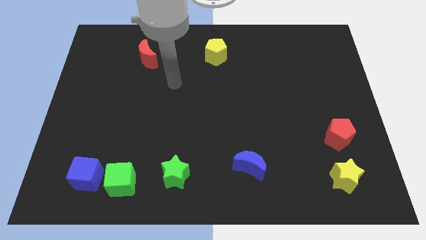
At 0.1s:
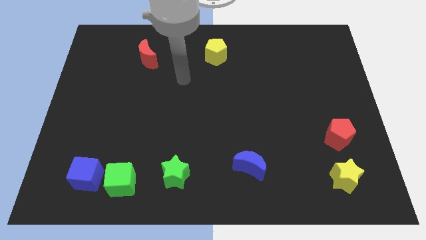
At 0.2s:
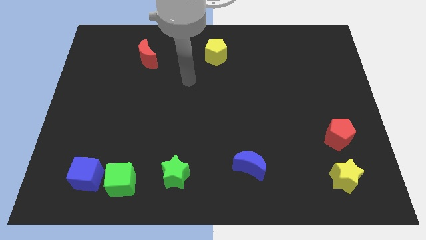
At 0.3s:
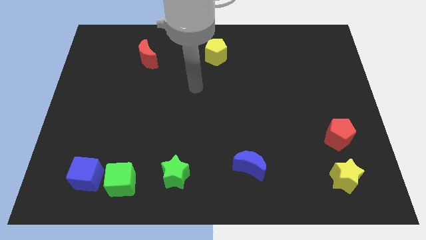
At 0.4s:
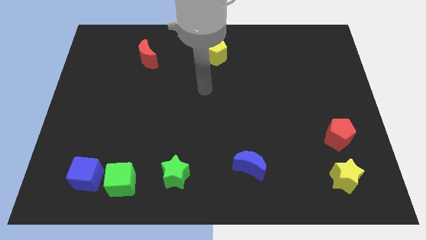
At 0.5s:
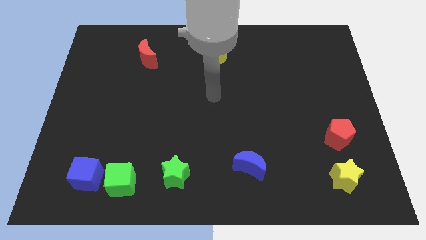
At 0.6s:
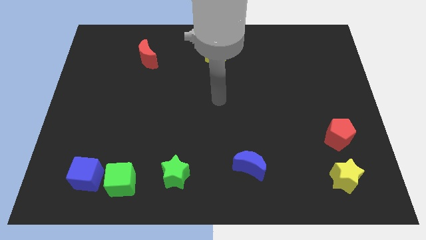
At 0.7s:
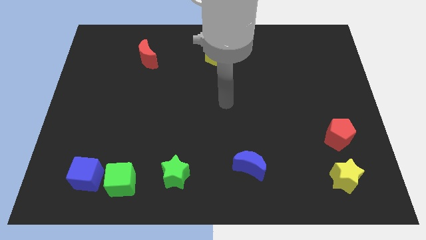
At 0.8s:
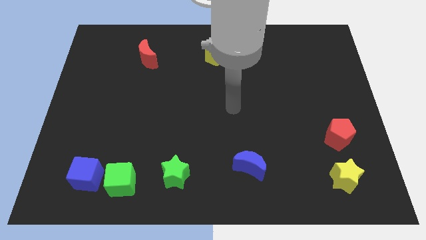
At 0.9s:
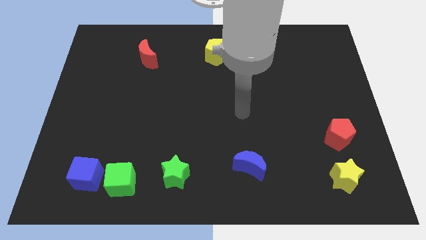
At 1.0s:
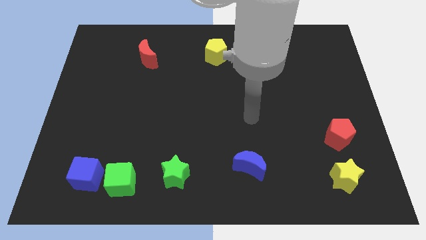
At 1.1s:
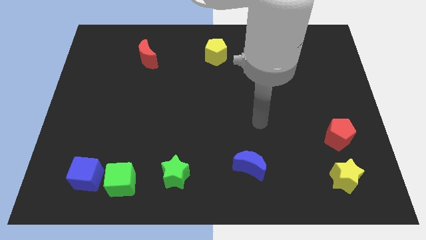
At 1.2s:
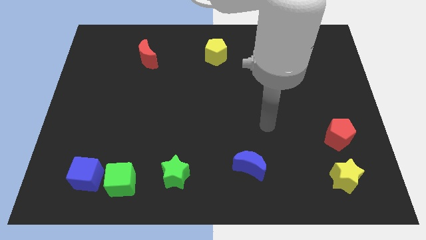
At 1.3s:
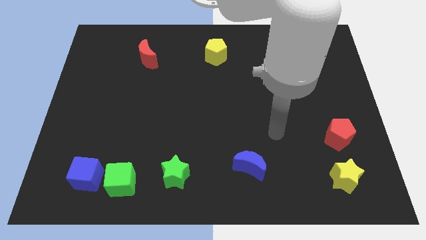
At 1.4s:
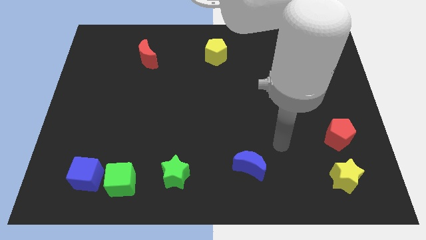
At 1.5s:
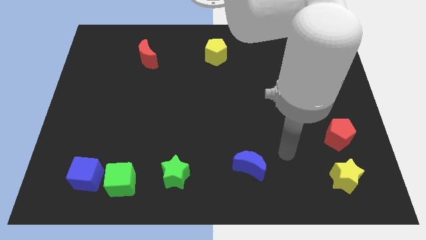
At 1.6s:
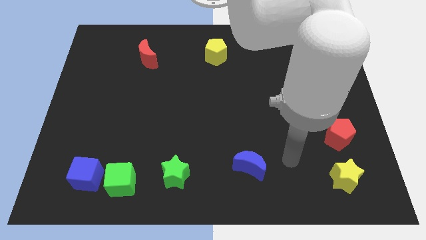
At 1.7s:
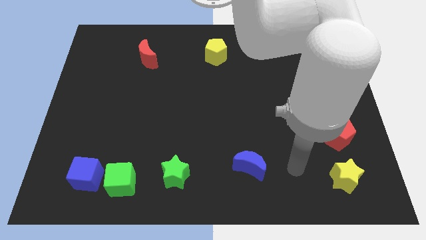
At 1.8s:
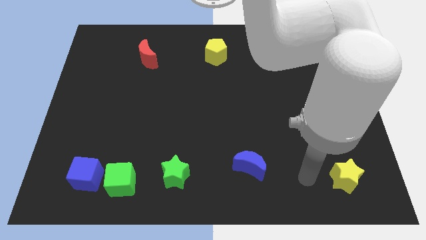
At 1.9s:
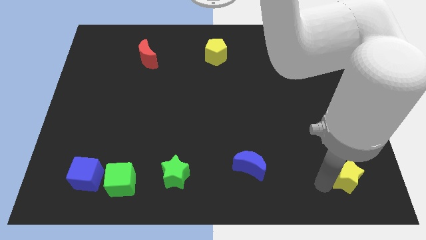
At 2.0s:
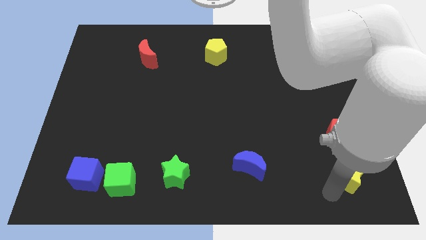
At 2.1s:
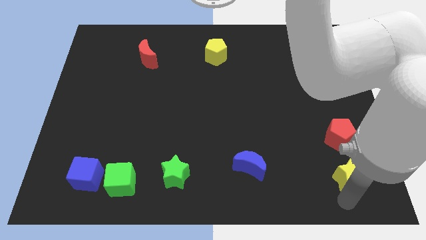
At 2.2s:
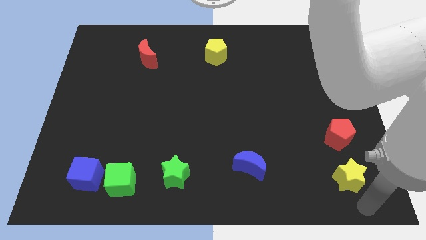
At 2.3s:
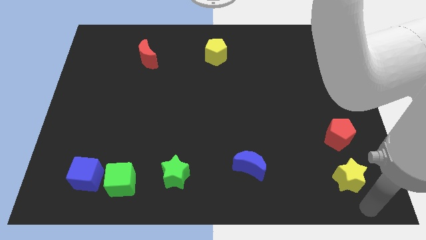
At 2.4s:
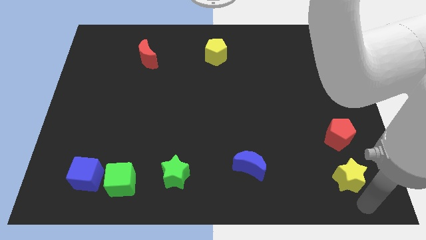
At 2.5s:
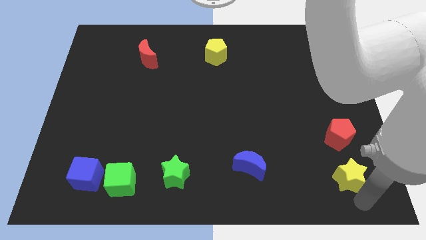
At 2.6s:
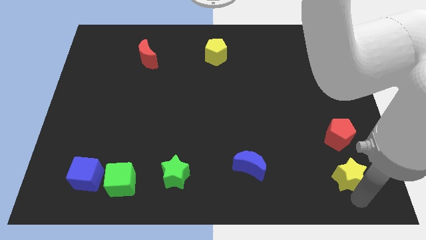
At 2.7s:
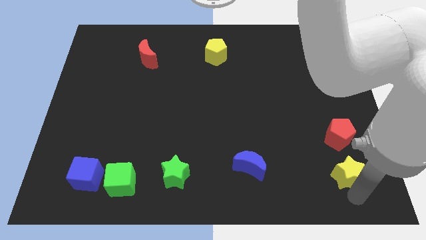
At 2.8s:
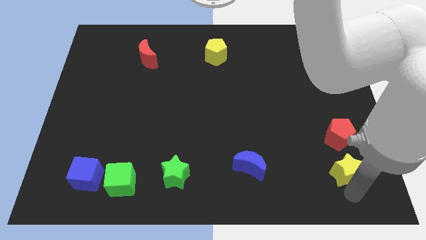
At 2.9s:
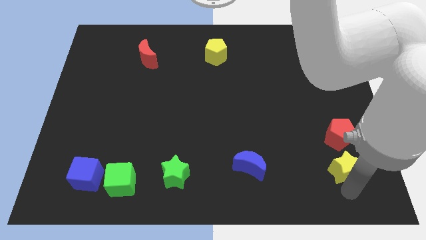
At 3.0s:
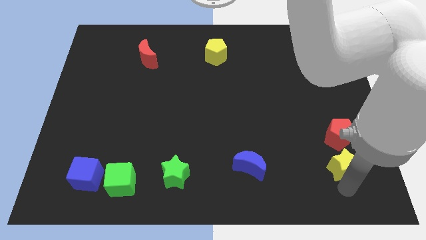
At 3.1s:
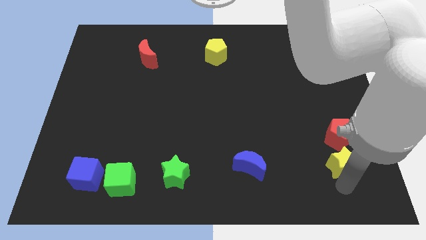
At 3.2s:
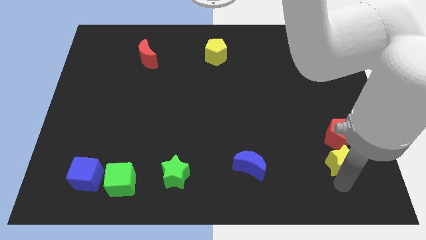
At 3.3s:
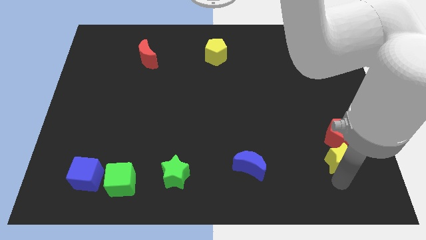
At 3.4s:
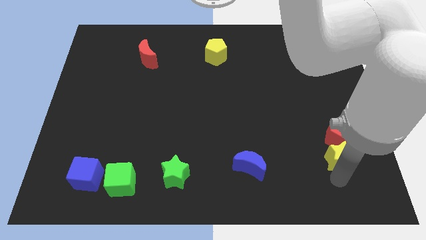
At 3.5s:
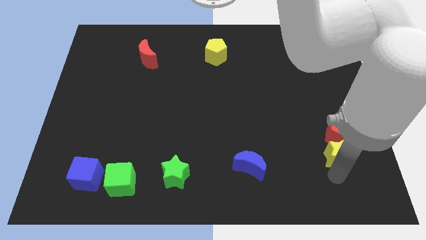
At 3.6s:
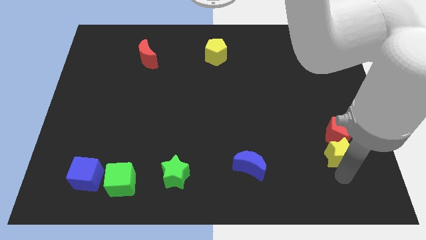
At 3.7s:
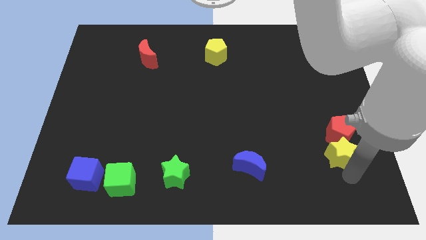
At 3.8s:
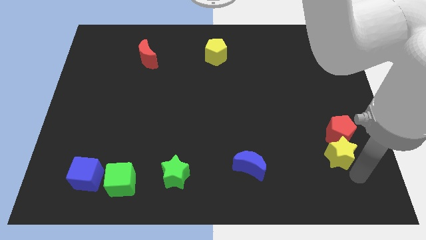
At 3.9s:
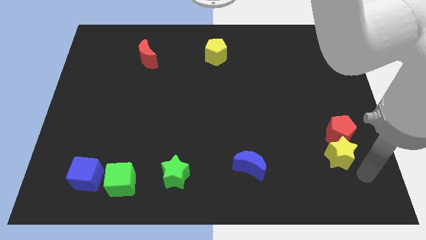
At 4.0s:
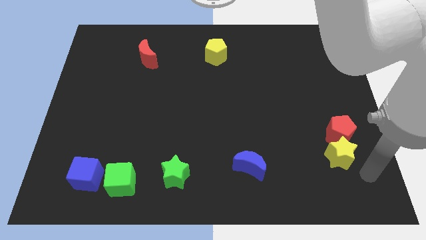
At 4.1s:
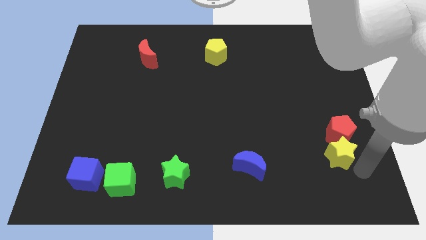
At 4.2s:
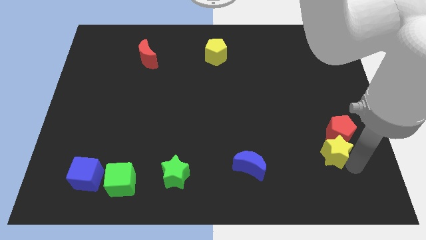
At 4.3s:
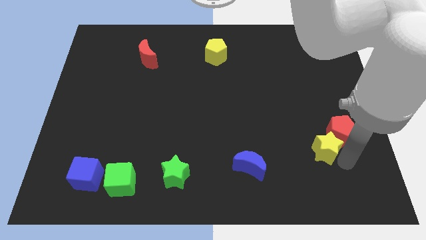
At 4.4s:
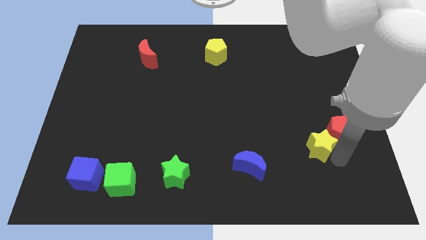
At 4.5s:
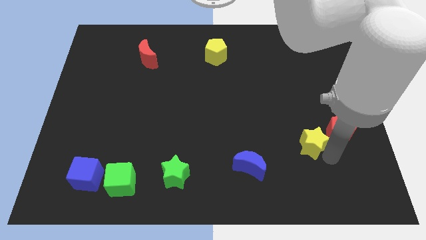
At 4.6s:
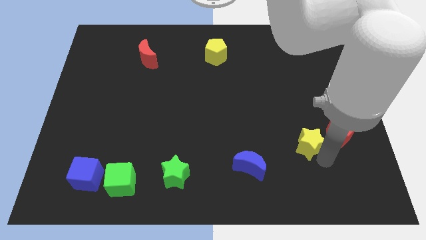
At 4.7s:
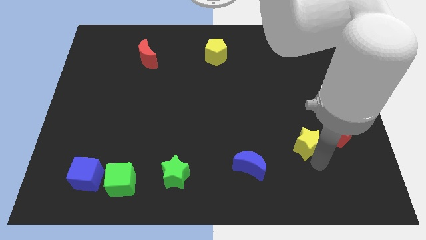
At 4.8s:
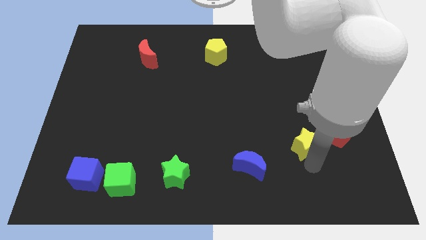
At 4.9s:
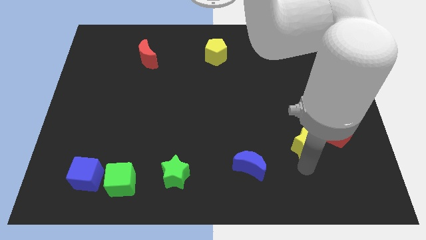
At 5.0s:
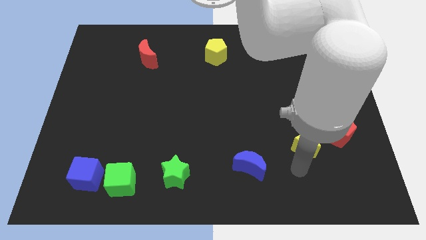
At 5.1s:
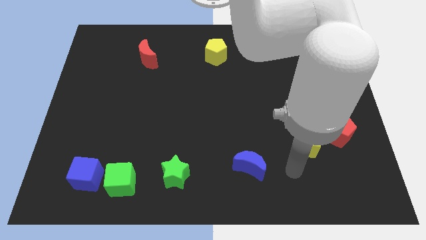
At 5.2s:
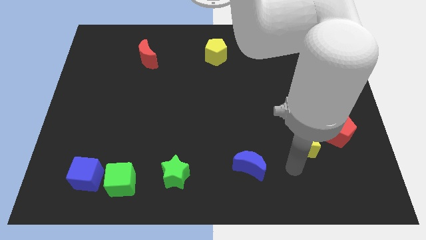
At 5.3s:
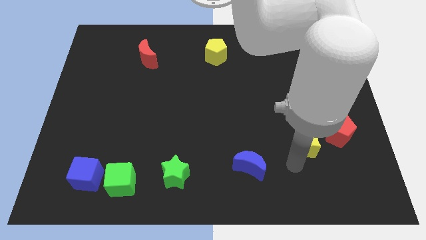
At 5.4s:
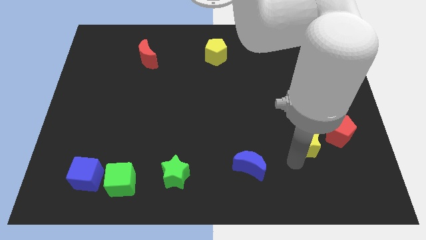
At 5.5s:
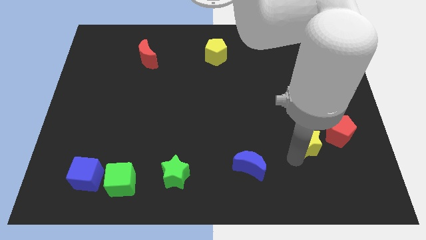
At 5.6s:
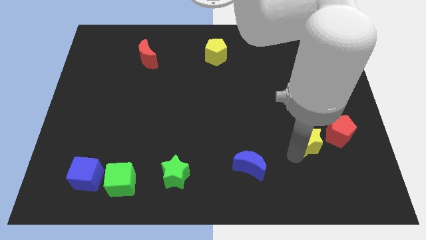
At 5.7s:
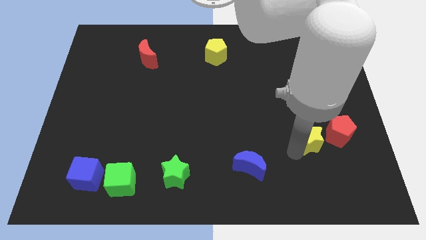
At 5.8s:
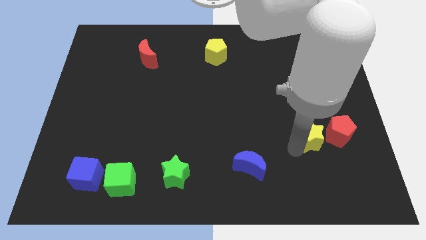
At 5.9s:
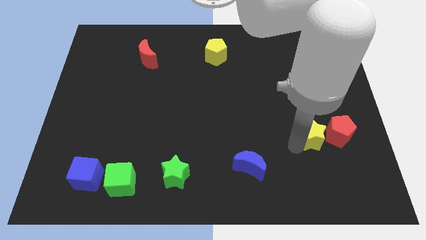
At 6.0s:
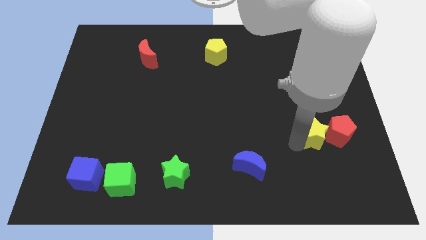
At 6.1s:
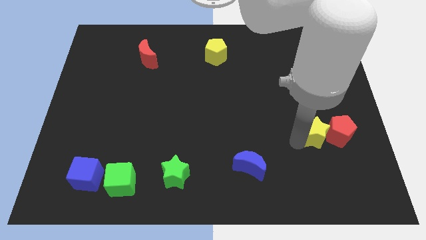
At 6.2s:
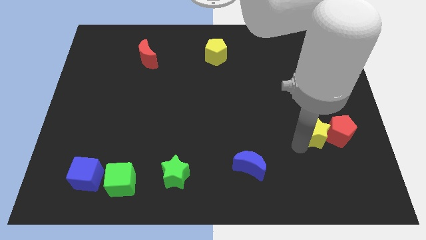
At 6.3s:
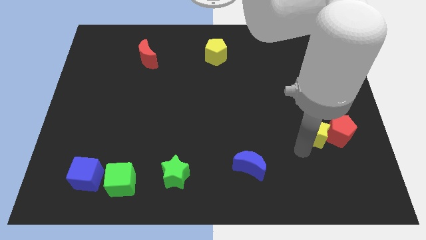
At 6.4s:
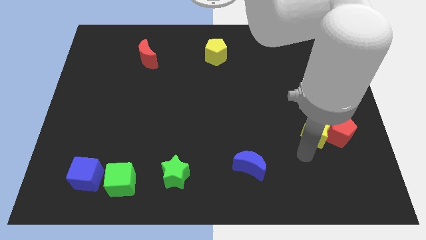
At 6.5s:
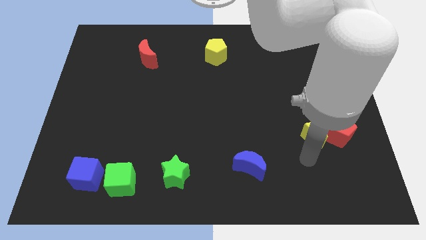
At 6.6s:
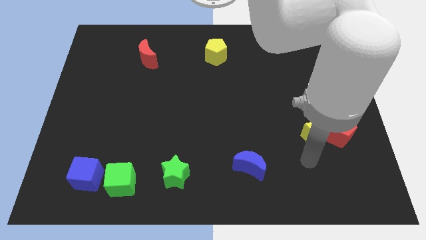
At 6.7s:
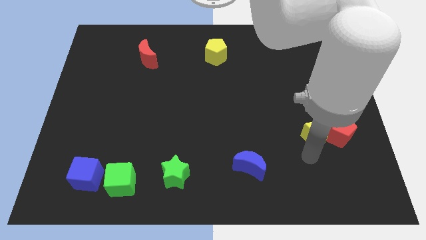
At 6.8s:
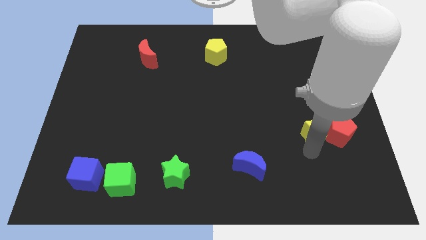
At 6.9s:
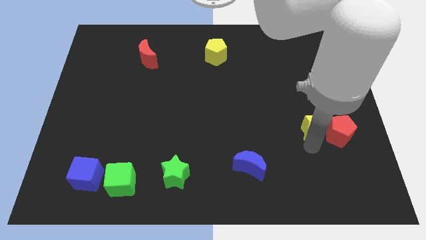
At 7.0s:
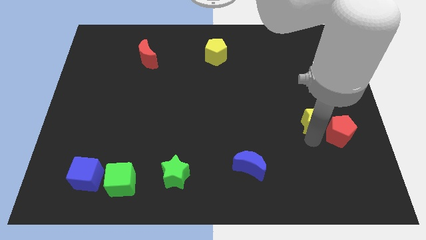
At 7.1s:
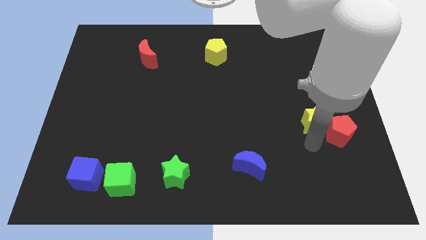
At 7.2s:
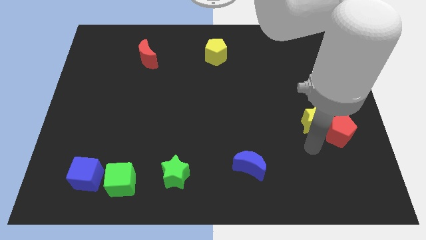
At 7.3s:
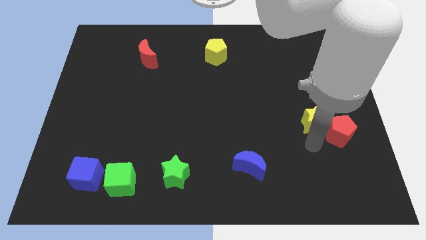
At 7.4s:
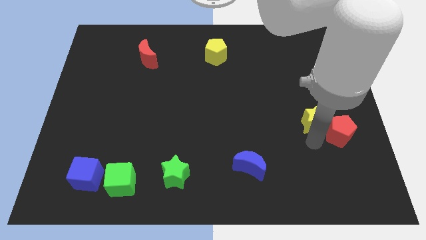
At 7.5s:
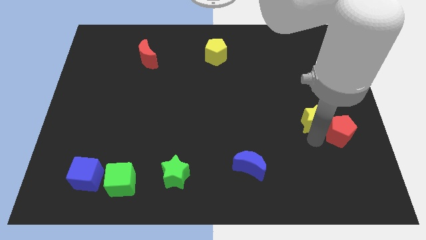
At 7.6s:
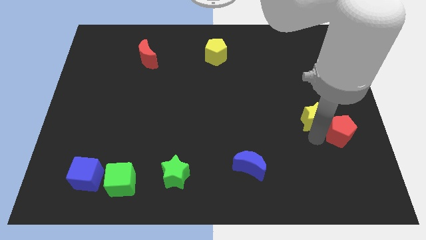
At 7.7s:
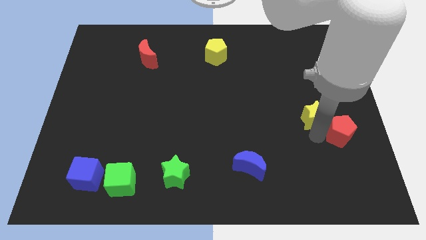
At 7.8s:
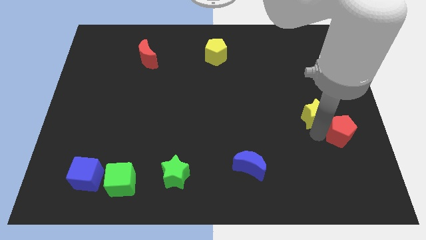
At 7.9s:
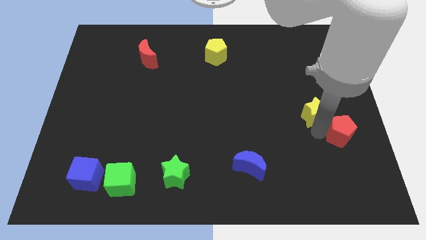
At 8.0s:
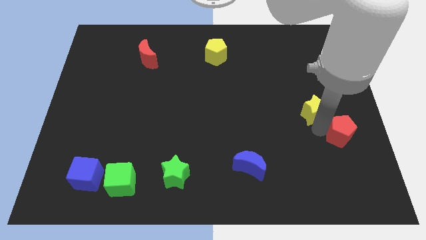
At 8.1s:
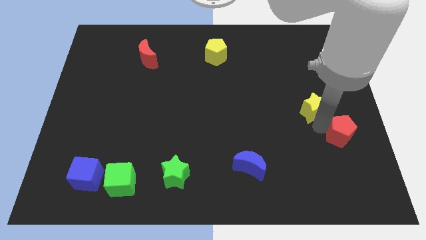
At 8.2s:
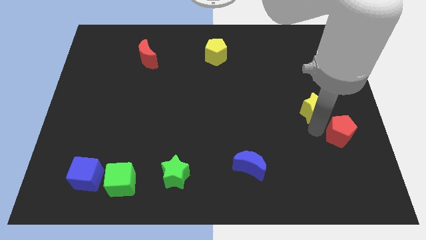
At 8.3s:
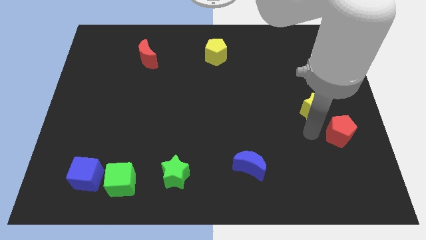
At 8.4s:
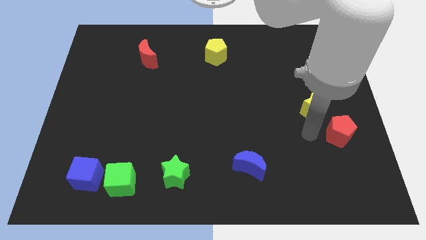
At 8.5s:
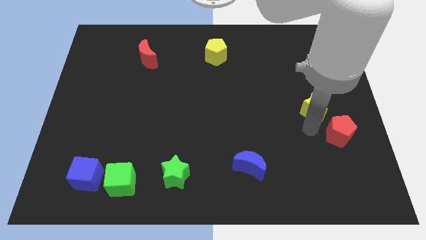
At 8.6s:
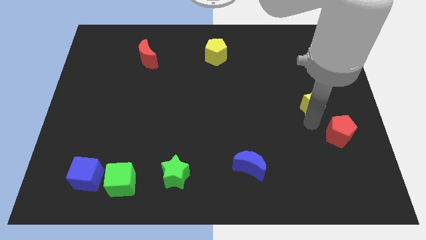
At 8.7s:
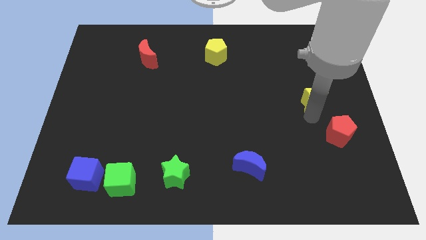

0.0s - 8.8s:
move the yellow star up
